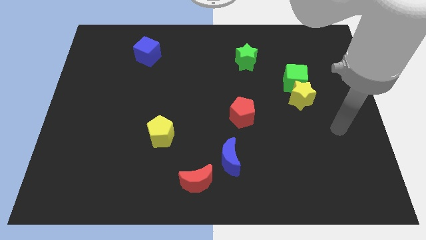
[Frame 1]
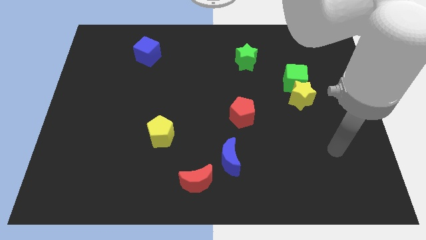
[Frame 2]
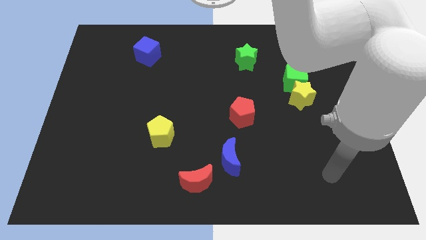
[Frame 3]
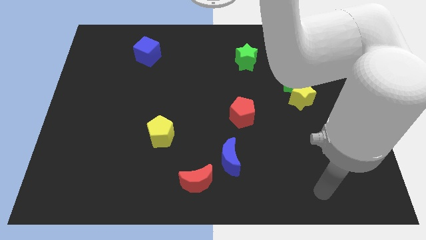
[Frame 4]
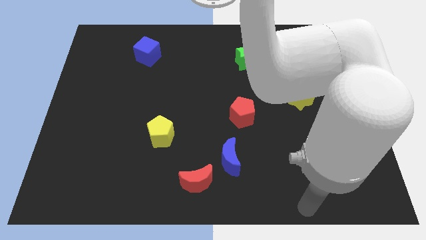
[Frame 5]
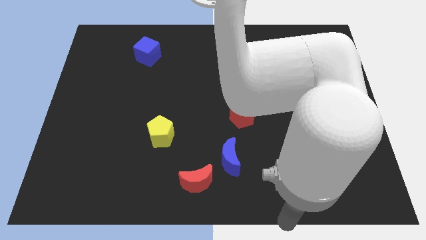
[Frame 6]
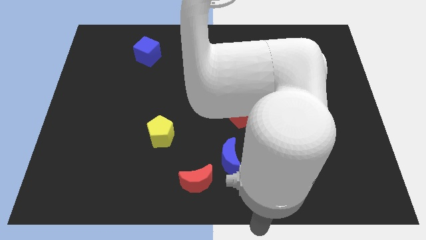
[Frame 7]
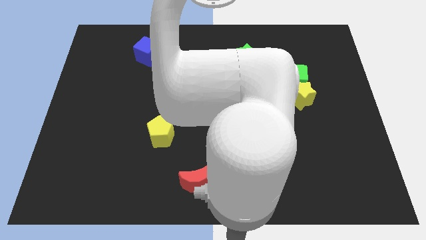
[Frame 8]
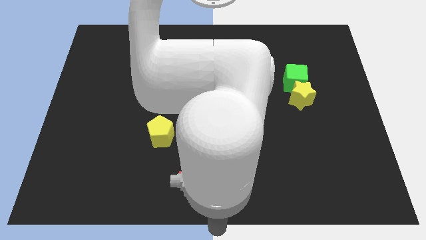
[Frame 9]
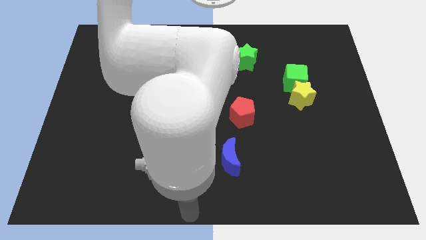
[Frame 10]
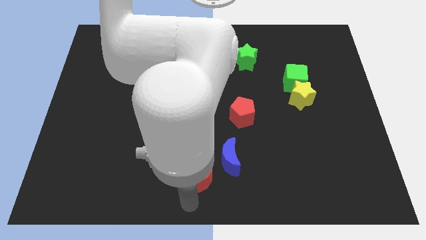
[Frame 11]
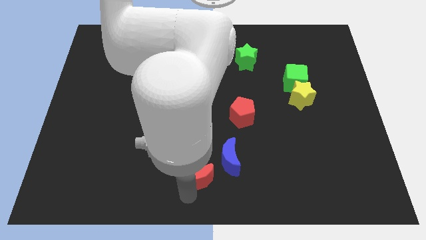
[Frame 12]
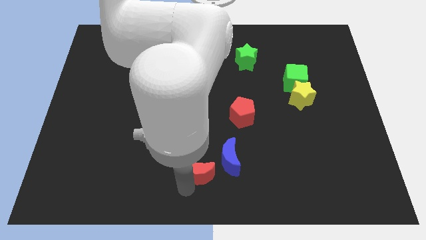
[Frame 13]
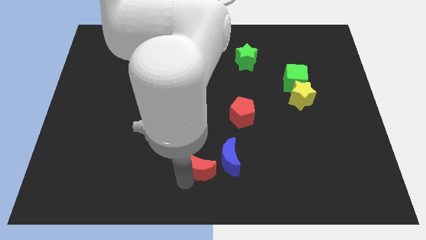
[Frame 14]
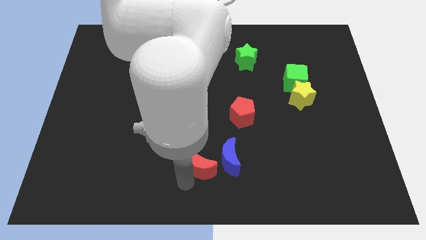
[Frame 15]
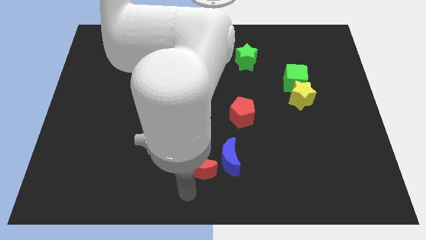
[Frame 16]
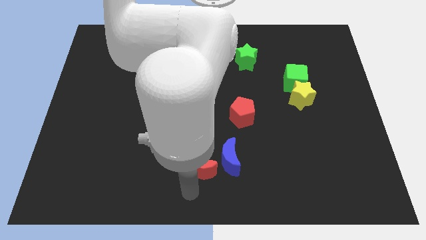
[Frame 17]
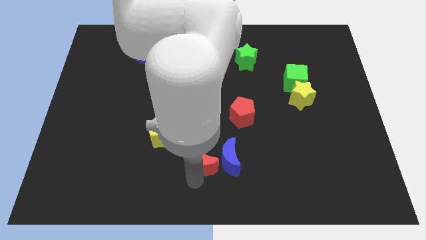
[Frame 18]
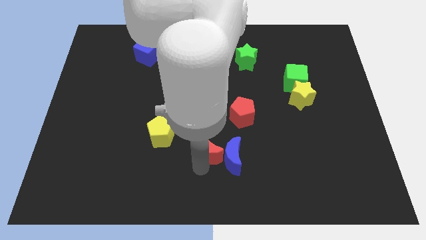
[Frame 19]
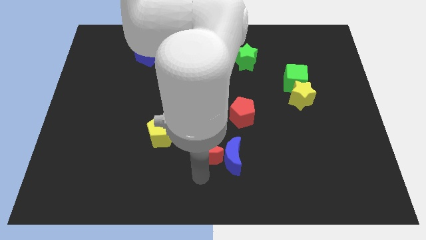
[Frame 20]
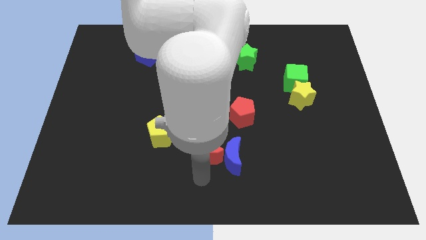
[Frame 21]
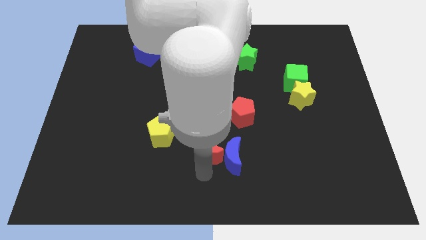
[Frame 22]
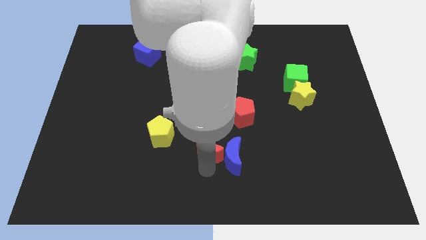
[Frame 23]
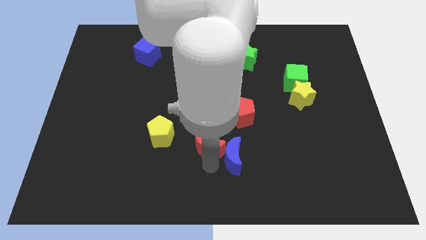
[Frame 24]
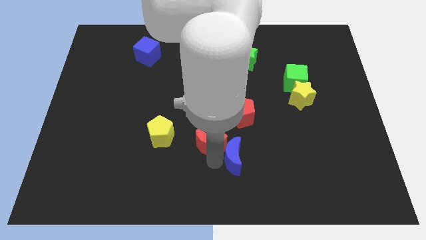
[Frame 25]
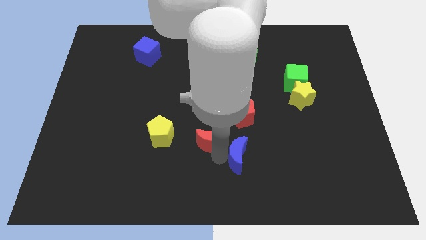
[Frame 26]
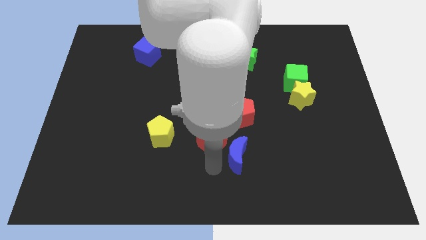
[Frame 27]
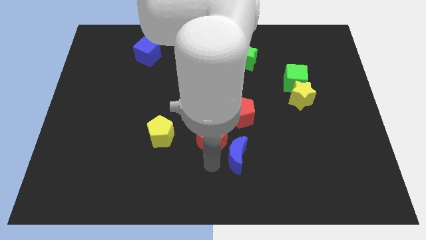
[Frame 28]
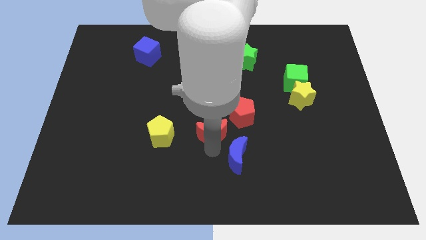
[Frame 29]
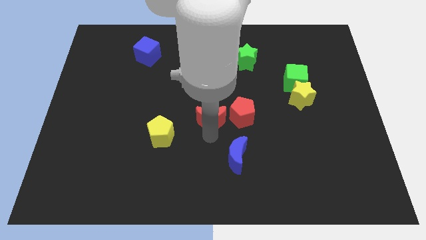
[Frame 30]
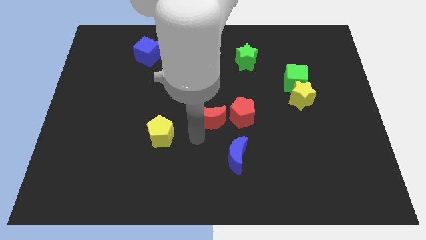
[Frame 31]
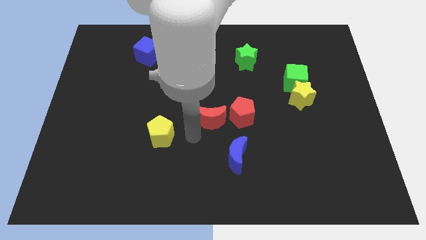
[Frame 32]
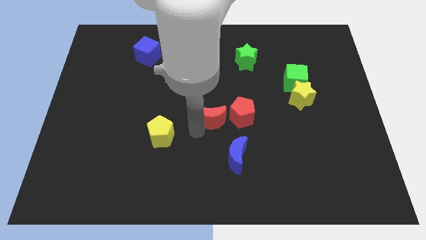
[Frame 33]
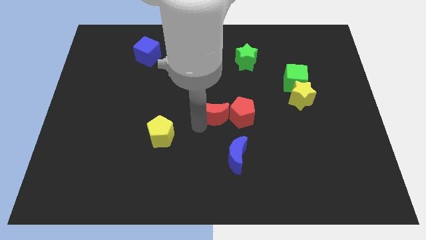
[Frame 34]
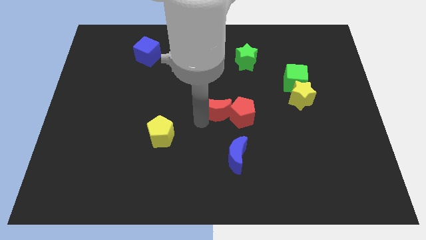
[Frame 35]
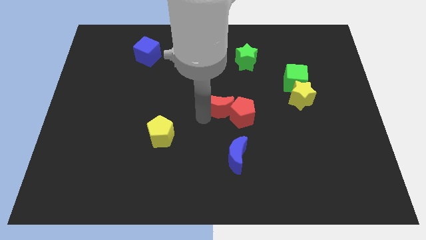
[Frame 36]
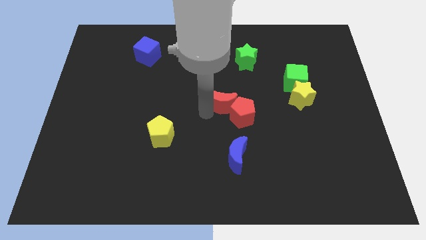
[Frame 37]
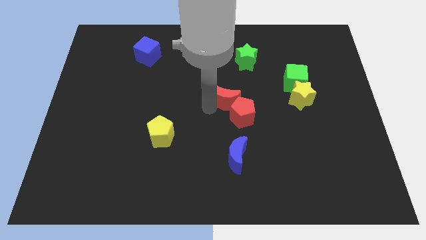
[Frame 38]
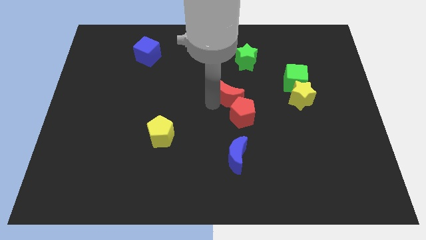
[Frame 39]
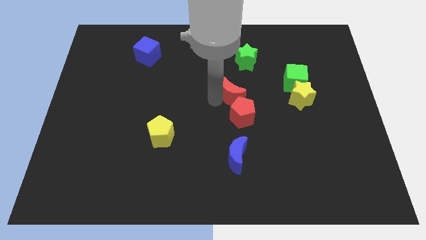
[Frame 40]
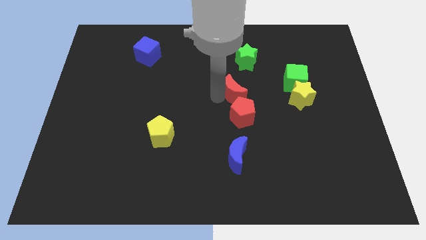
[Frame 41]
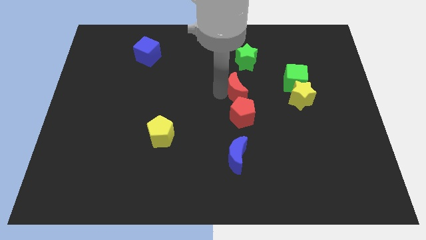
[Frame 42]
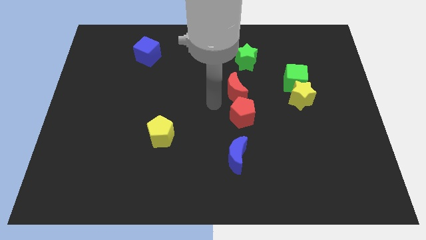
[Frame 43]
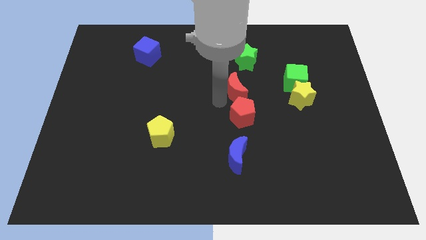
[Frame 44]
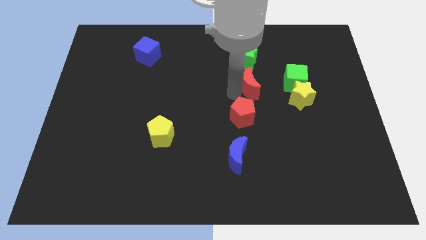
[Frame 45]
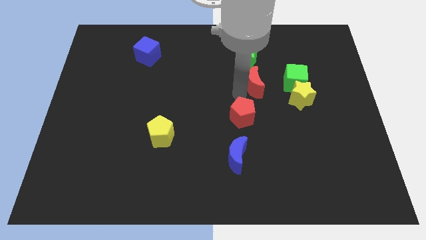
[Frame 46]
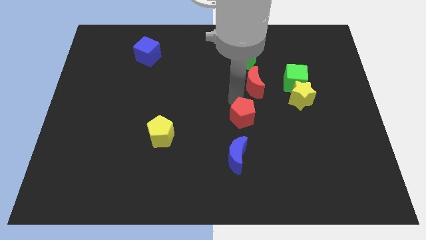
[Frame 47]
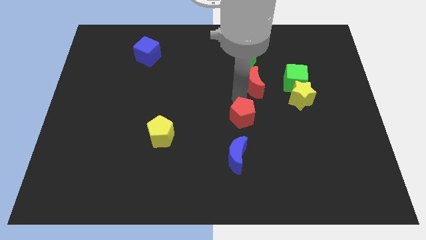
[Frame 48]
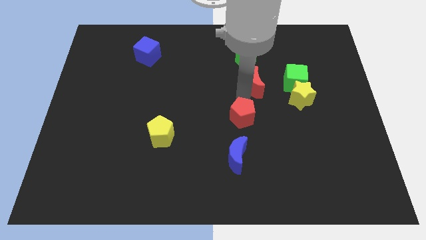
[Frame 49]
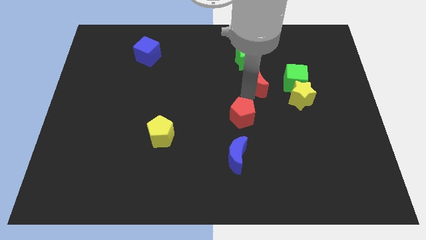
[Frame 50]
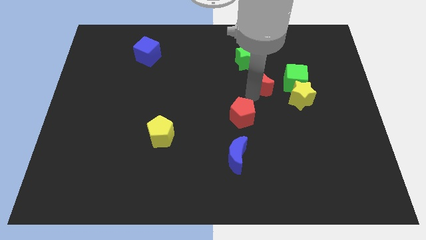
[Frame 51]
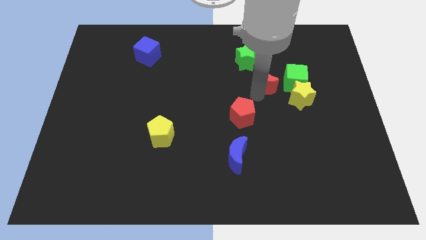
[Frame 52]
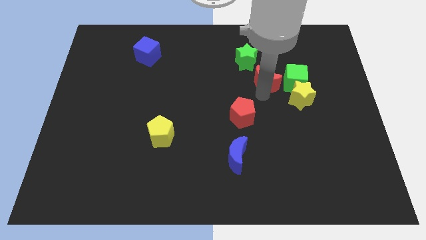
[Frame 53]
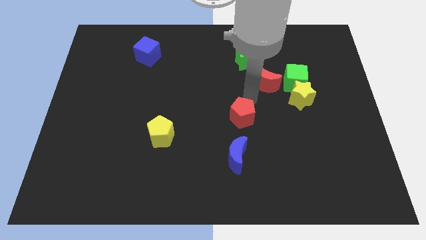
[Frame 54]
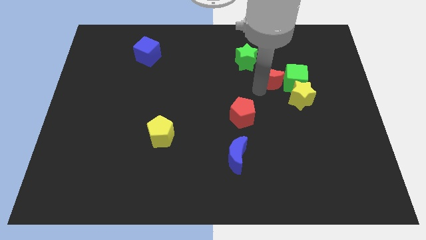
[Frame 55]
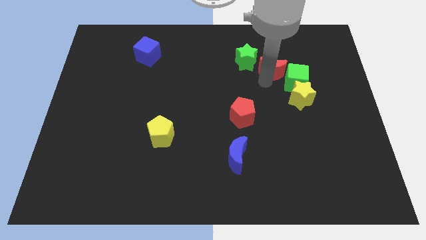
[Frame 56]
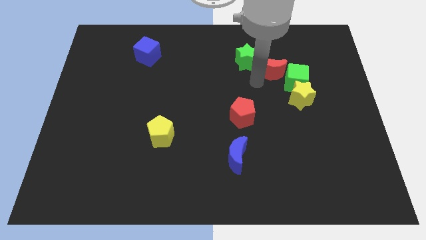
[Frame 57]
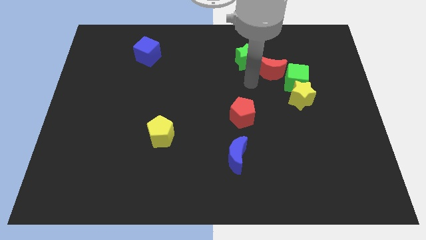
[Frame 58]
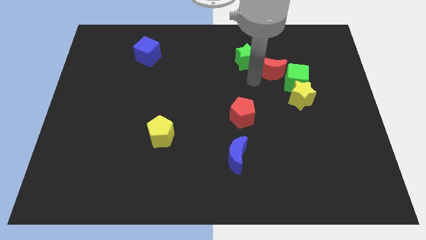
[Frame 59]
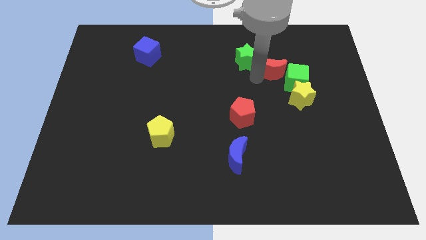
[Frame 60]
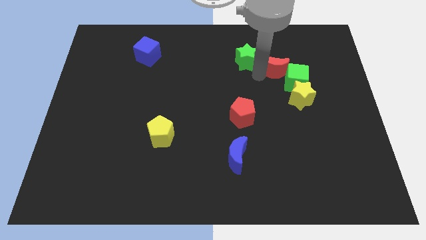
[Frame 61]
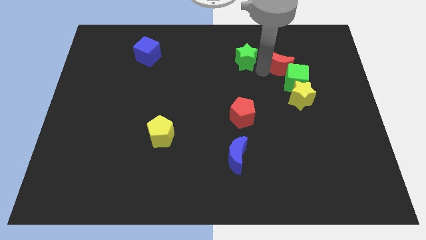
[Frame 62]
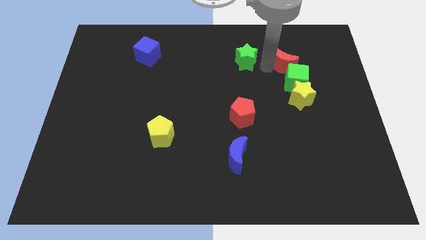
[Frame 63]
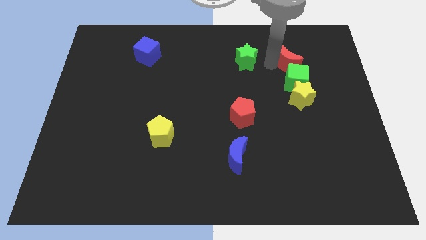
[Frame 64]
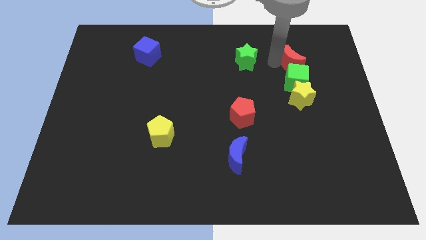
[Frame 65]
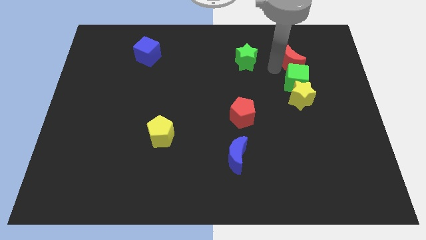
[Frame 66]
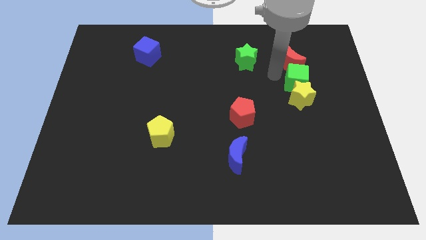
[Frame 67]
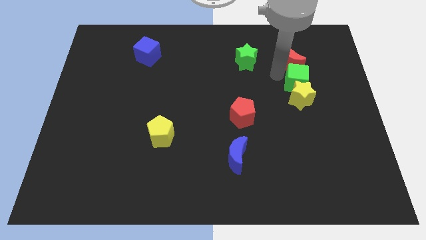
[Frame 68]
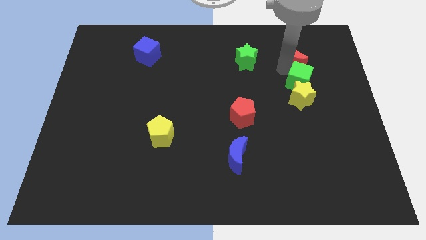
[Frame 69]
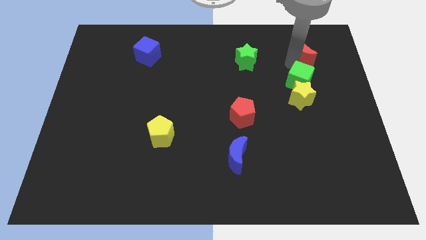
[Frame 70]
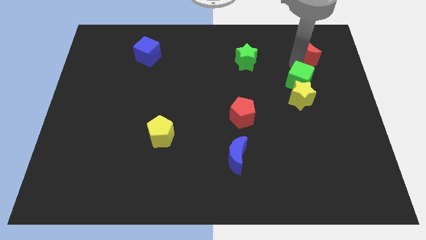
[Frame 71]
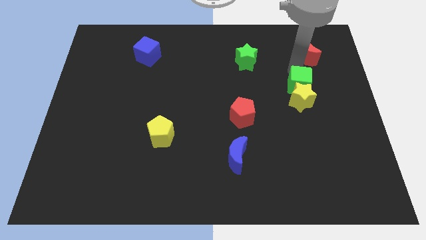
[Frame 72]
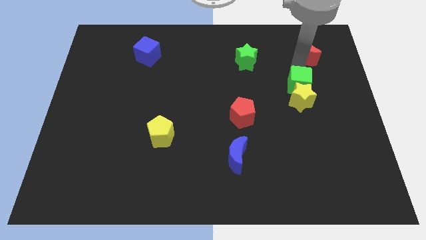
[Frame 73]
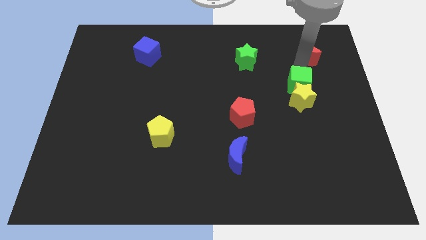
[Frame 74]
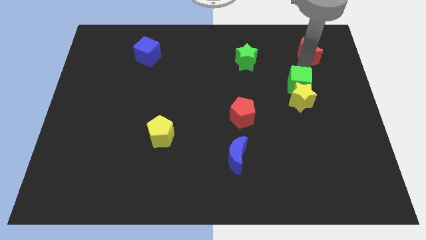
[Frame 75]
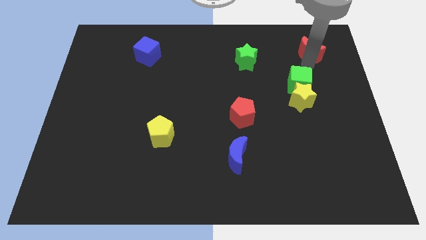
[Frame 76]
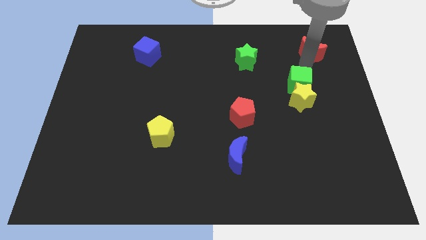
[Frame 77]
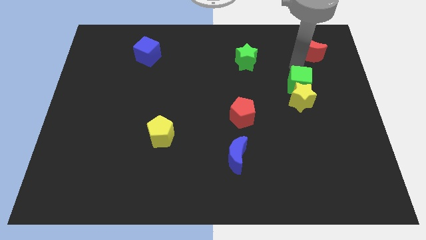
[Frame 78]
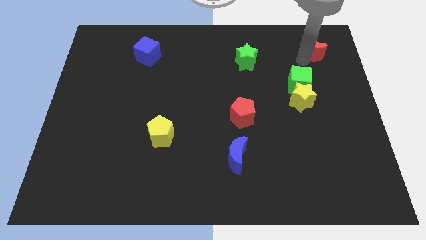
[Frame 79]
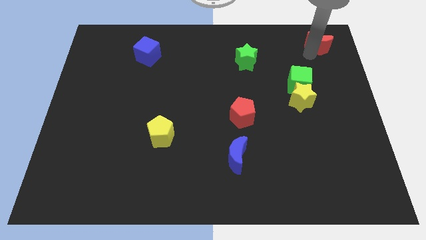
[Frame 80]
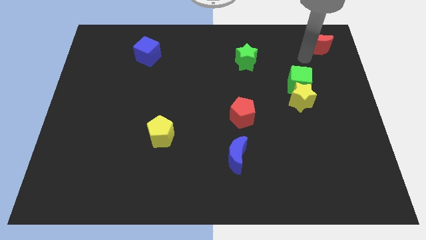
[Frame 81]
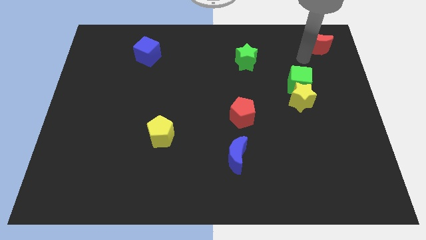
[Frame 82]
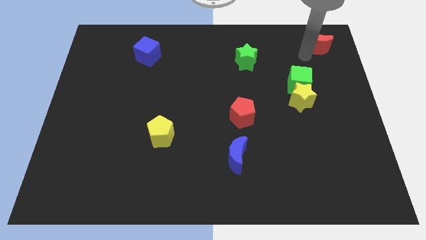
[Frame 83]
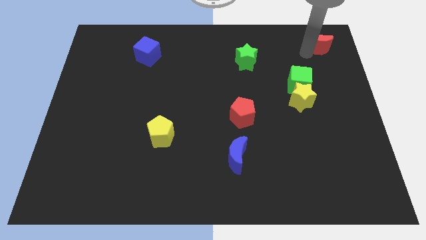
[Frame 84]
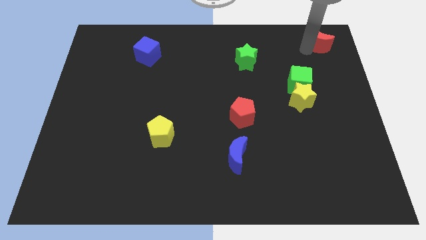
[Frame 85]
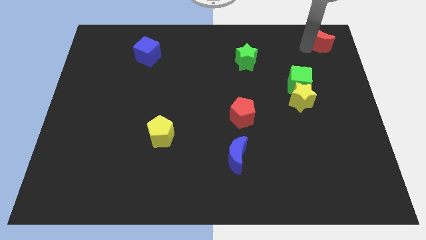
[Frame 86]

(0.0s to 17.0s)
move the red moon to the top right corner
